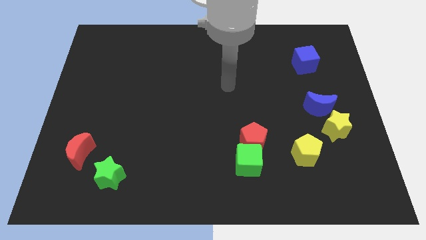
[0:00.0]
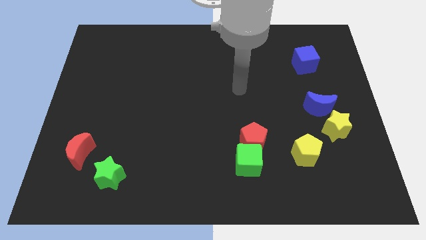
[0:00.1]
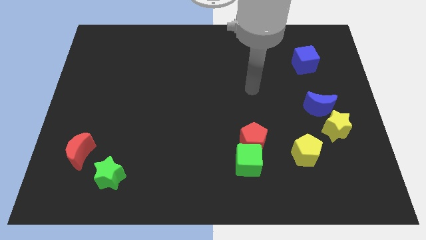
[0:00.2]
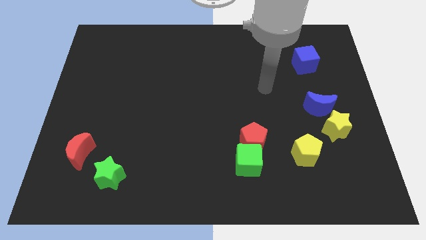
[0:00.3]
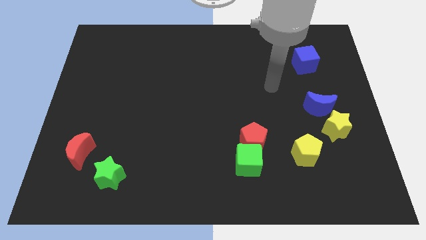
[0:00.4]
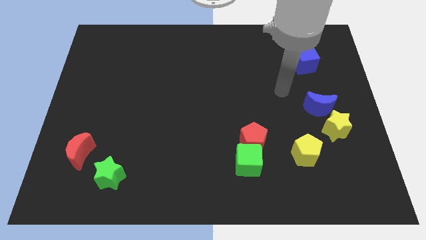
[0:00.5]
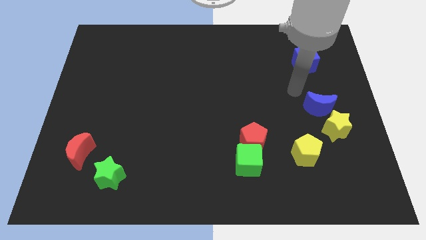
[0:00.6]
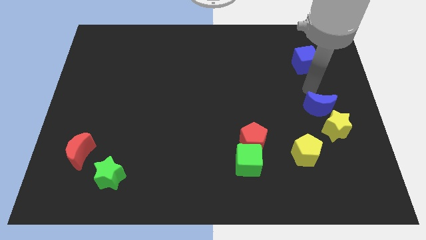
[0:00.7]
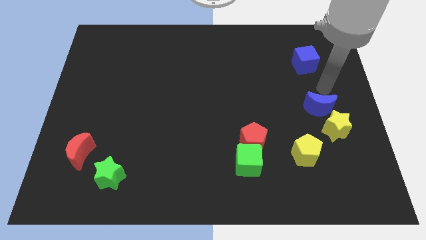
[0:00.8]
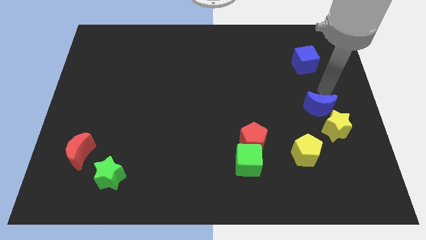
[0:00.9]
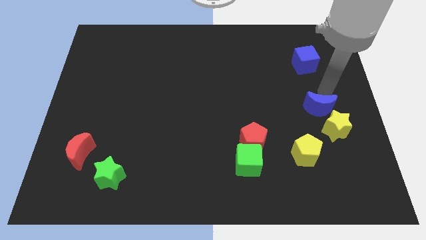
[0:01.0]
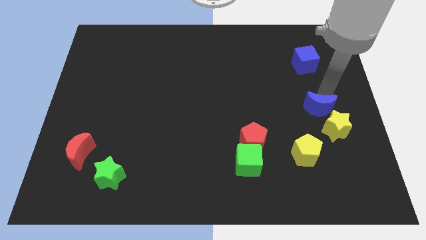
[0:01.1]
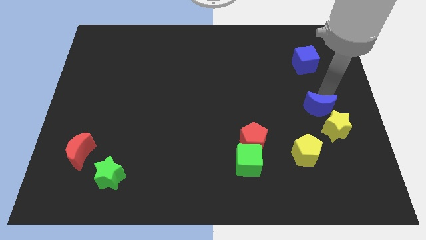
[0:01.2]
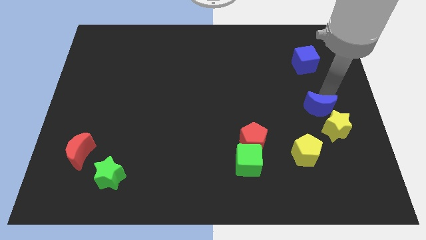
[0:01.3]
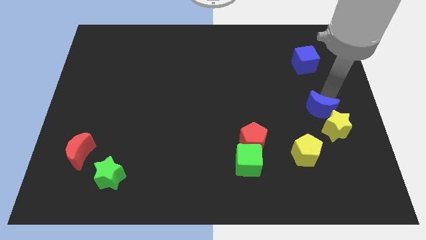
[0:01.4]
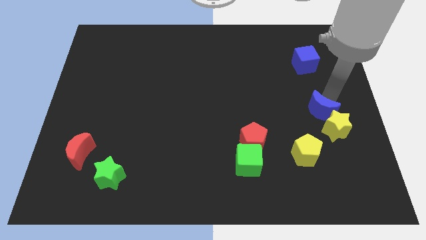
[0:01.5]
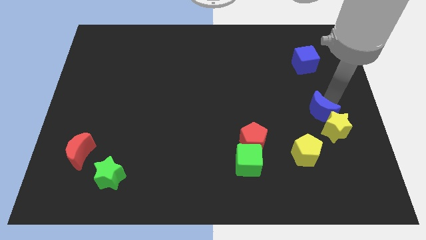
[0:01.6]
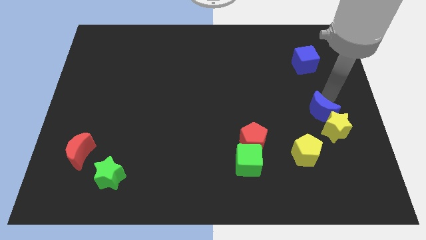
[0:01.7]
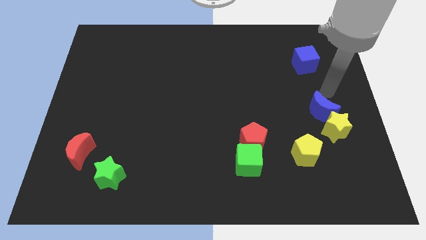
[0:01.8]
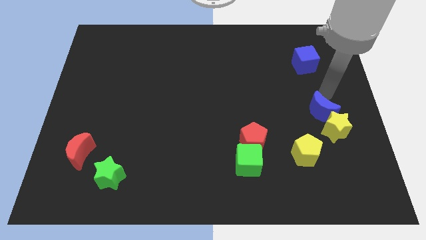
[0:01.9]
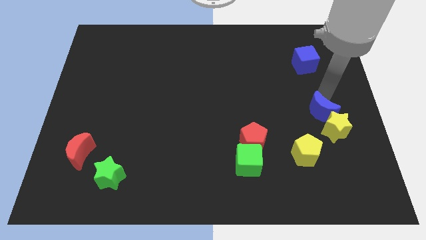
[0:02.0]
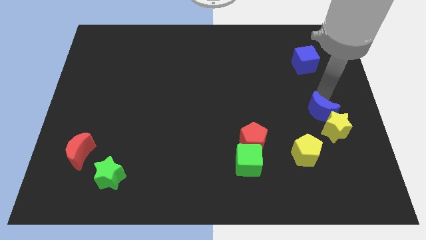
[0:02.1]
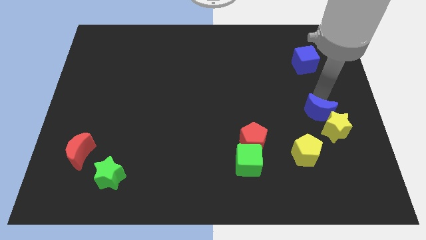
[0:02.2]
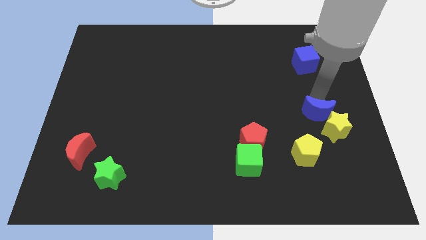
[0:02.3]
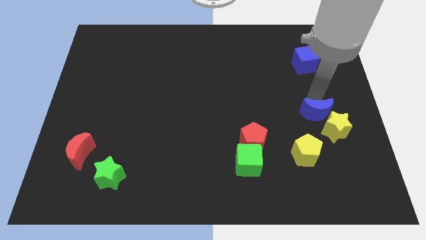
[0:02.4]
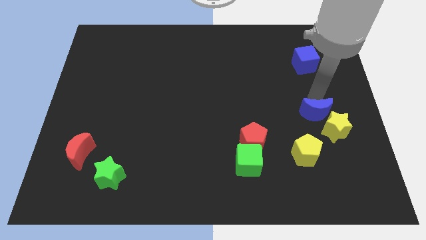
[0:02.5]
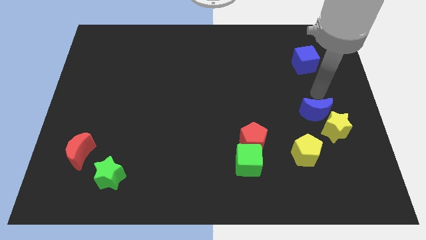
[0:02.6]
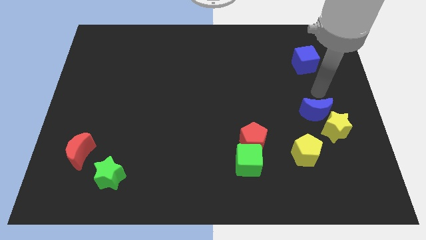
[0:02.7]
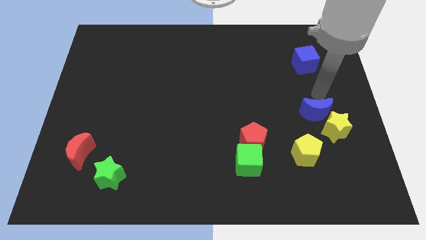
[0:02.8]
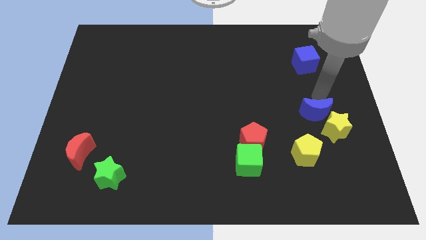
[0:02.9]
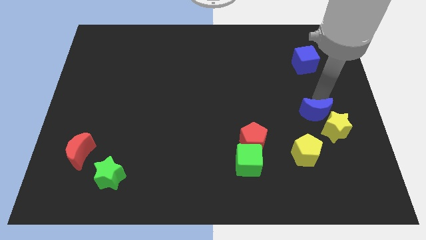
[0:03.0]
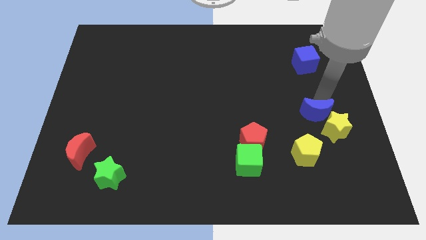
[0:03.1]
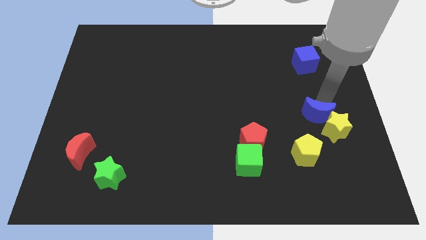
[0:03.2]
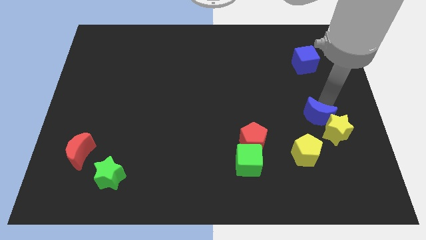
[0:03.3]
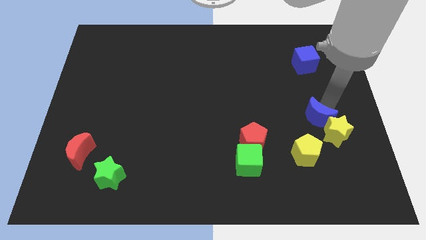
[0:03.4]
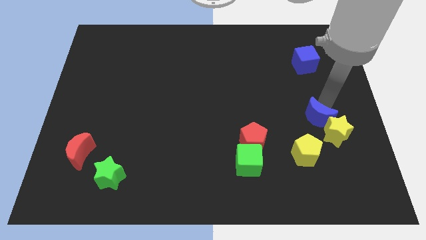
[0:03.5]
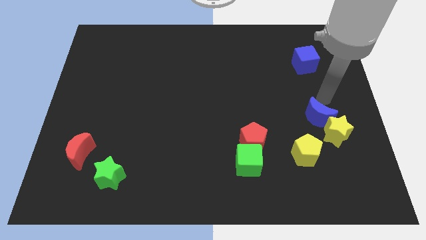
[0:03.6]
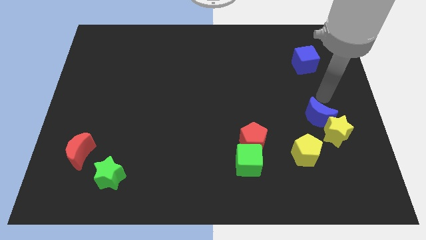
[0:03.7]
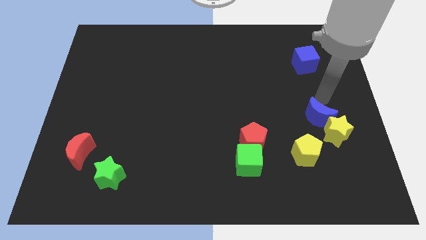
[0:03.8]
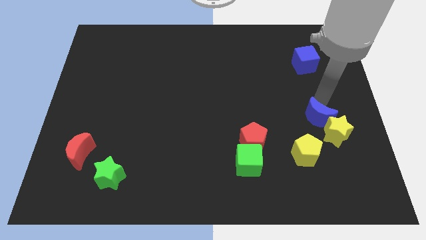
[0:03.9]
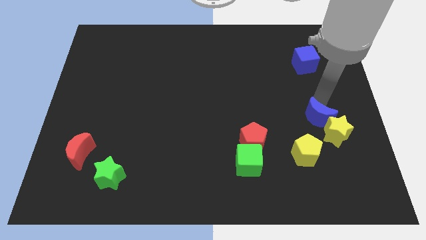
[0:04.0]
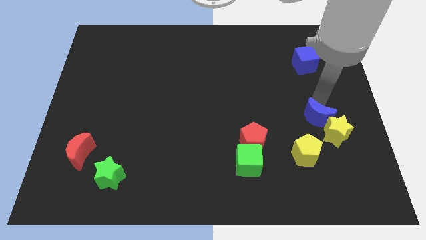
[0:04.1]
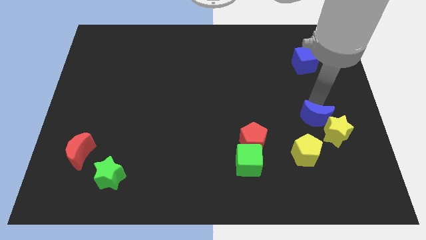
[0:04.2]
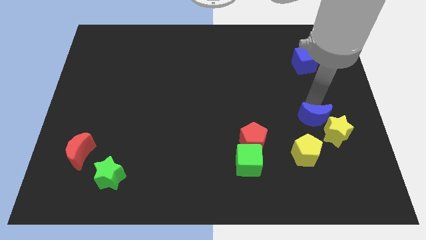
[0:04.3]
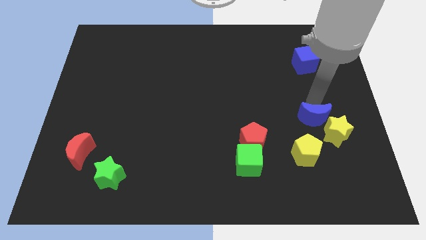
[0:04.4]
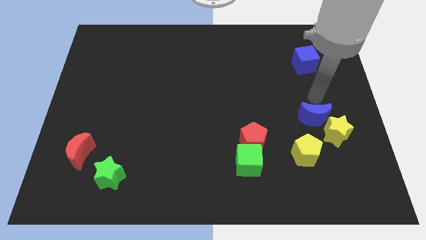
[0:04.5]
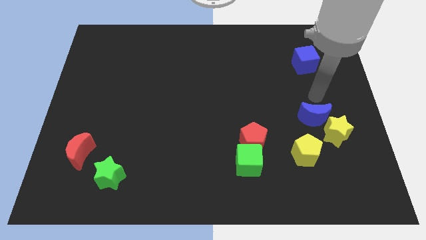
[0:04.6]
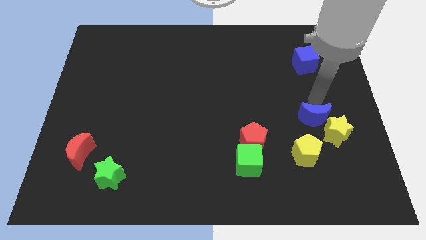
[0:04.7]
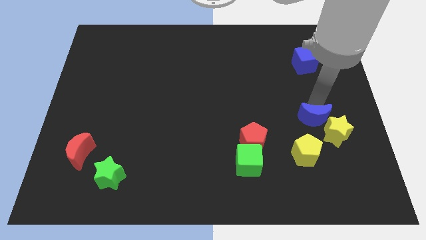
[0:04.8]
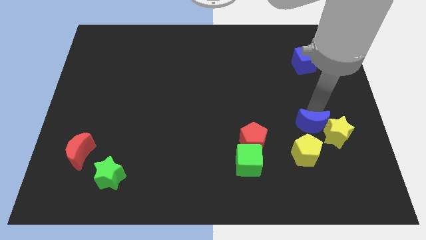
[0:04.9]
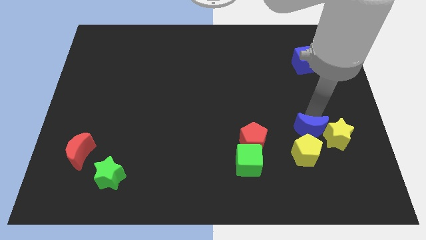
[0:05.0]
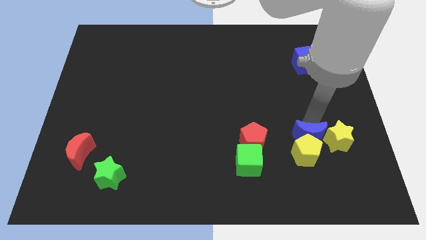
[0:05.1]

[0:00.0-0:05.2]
push the blue moon close to the yellow pentagon

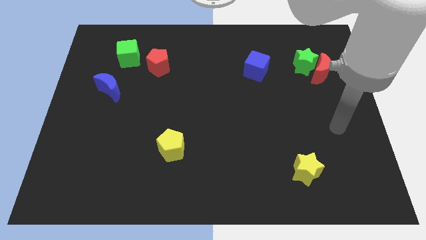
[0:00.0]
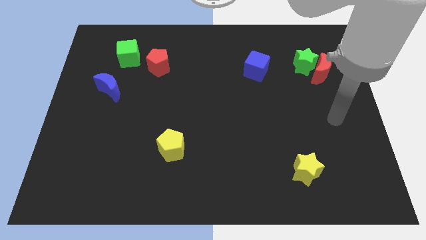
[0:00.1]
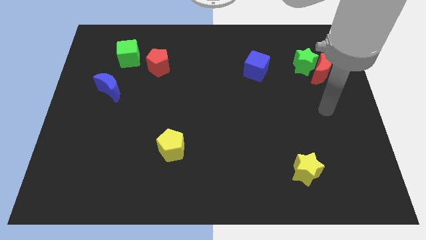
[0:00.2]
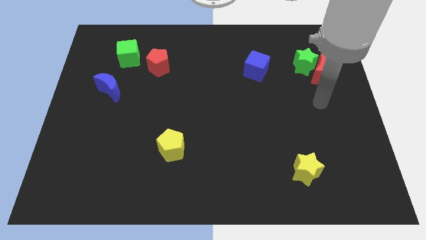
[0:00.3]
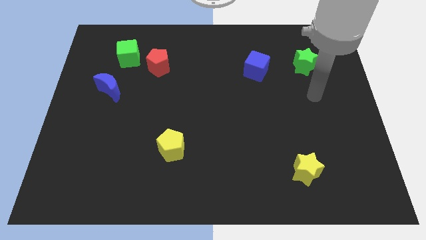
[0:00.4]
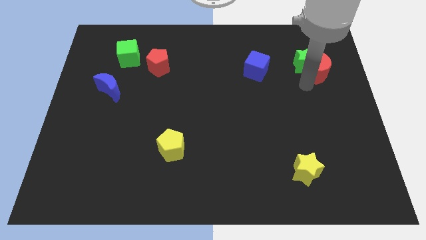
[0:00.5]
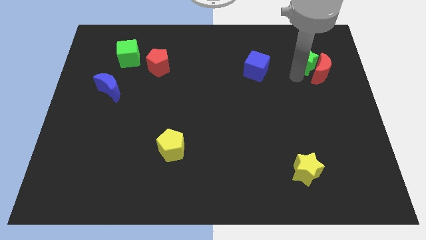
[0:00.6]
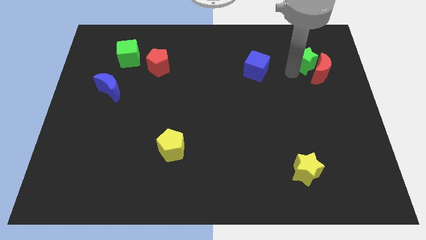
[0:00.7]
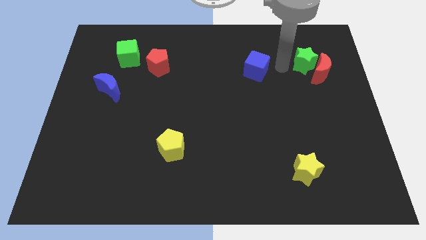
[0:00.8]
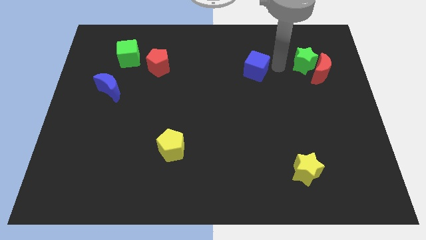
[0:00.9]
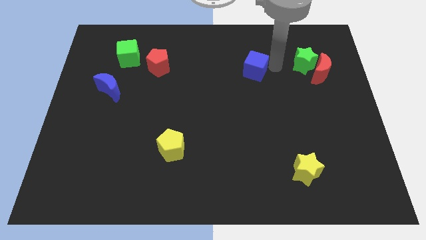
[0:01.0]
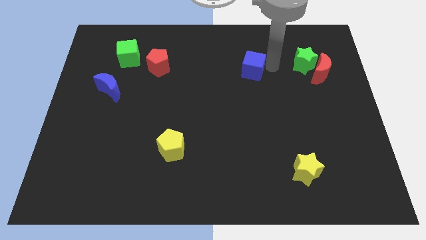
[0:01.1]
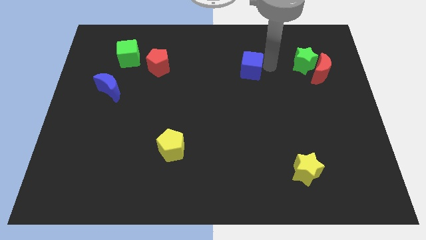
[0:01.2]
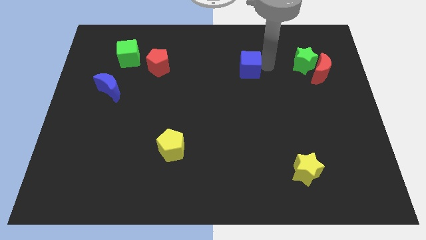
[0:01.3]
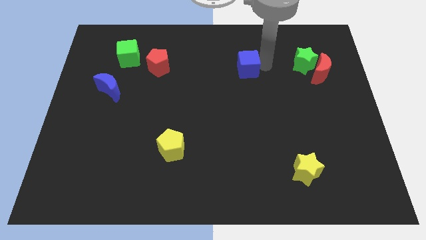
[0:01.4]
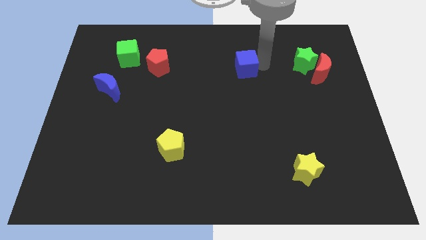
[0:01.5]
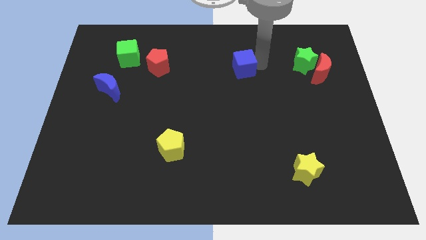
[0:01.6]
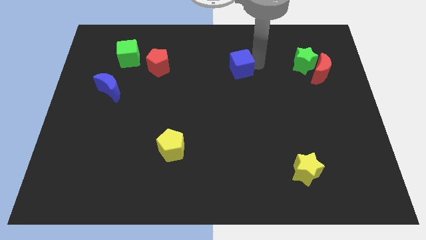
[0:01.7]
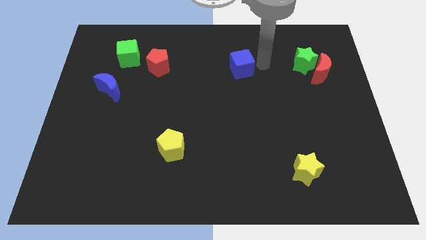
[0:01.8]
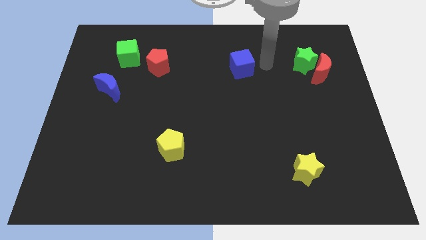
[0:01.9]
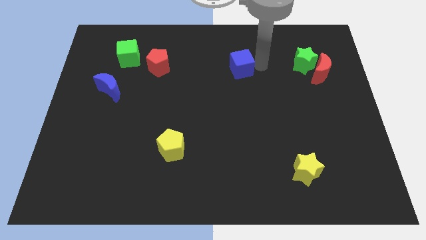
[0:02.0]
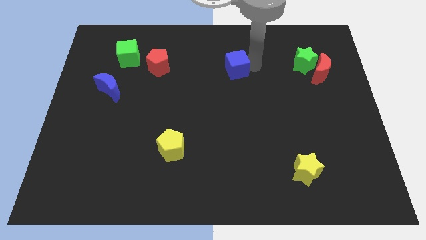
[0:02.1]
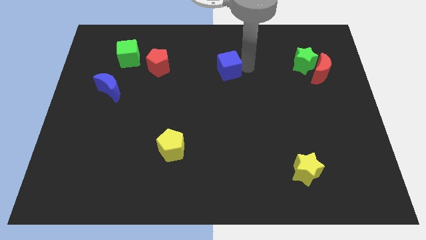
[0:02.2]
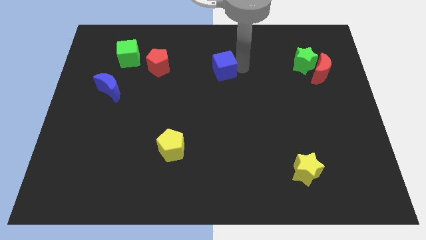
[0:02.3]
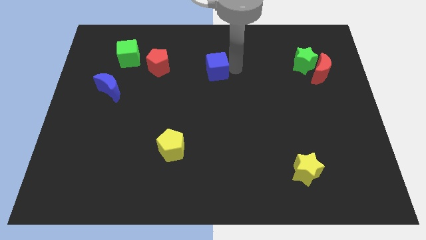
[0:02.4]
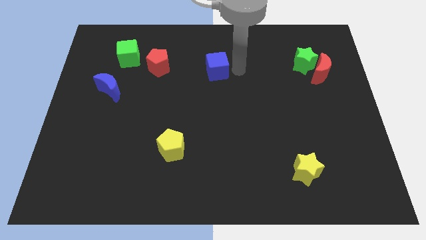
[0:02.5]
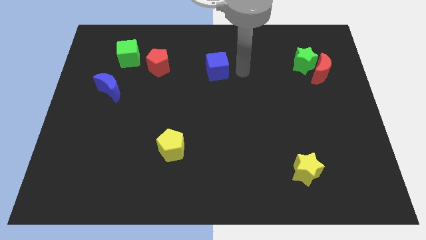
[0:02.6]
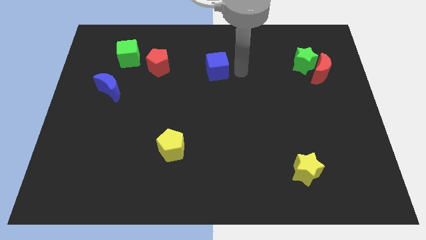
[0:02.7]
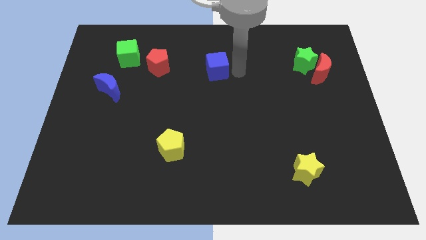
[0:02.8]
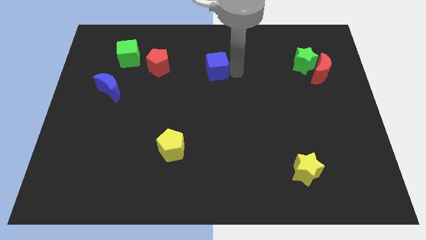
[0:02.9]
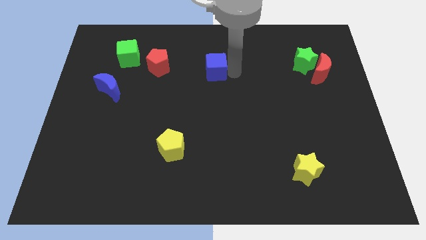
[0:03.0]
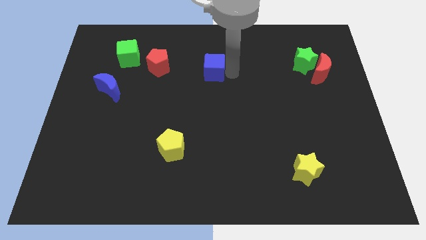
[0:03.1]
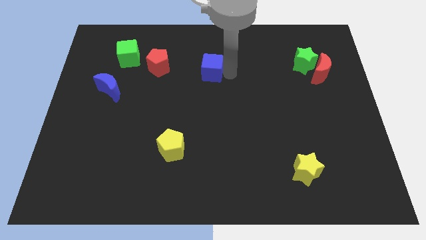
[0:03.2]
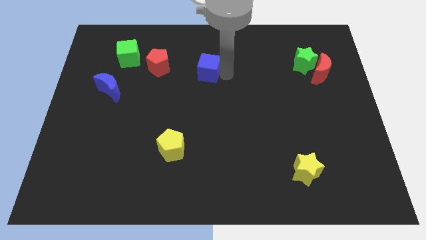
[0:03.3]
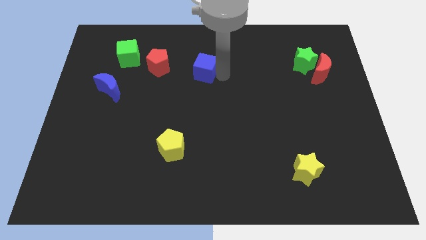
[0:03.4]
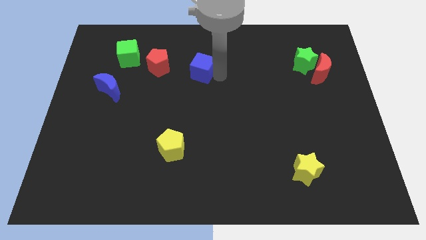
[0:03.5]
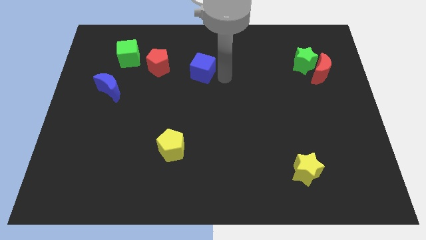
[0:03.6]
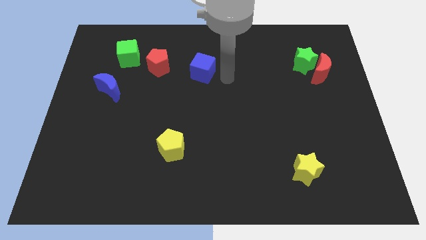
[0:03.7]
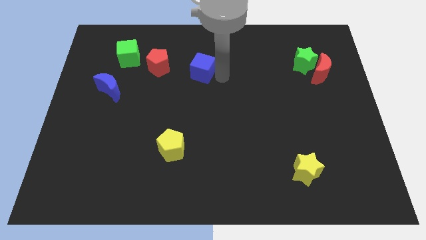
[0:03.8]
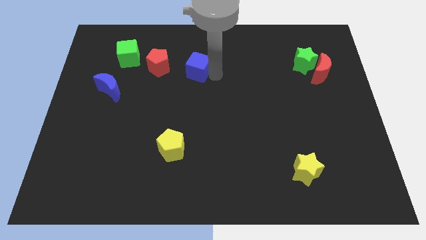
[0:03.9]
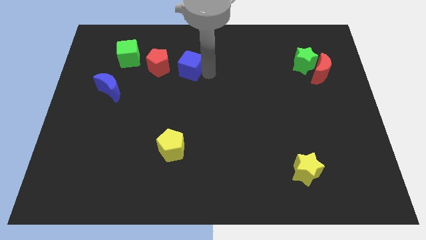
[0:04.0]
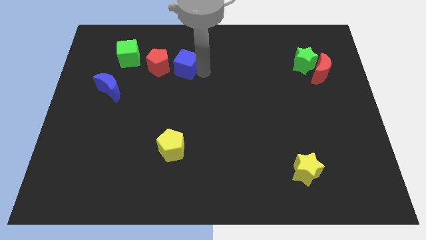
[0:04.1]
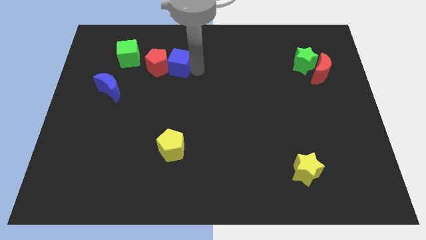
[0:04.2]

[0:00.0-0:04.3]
slide the blue cube next to the red pentagon
